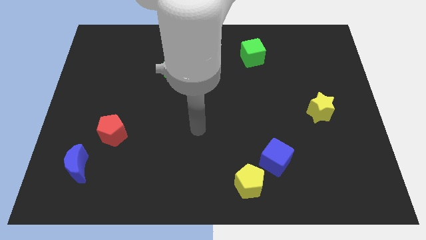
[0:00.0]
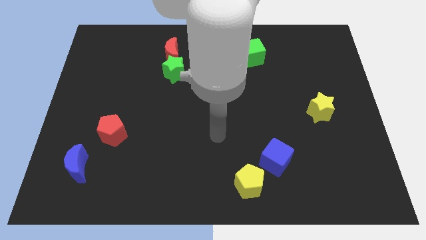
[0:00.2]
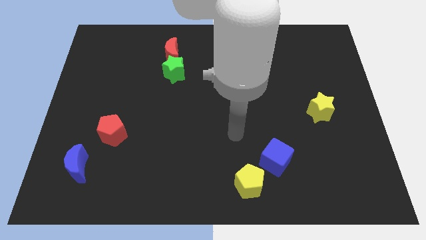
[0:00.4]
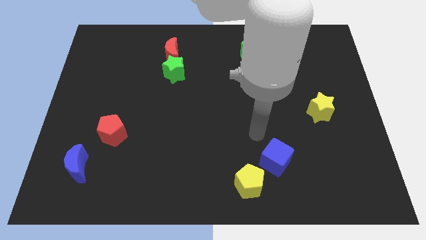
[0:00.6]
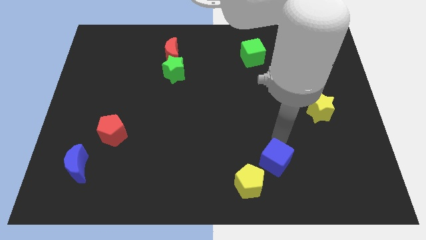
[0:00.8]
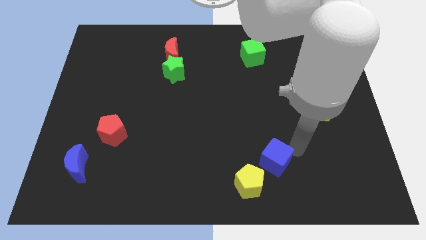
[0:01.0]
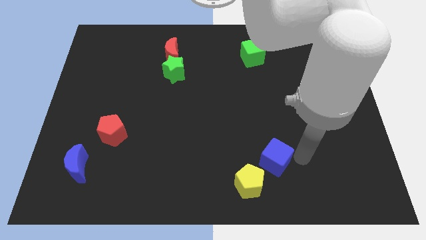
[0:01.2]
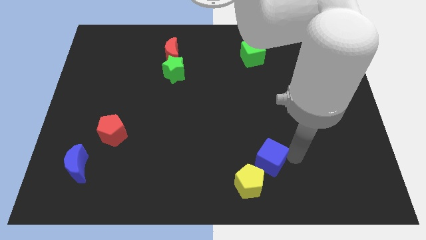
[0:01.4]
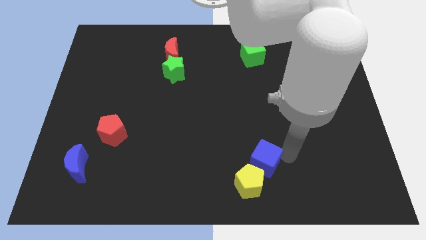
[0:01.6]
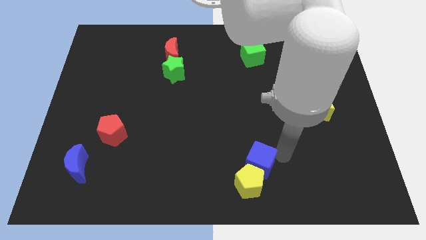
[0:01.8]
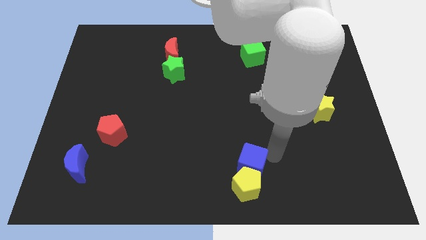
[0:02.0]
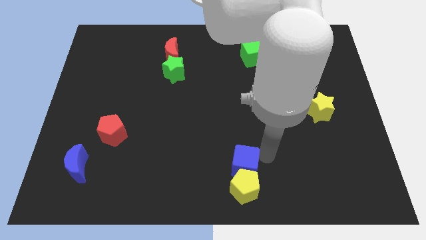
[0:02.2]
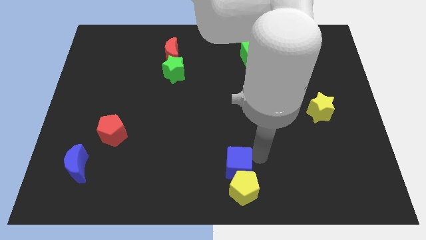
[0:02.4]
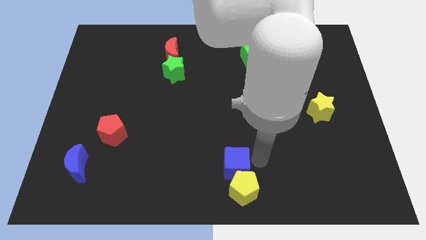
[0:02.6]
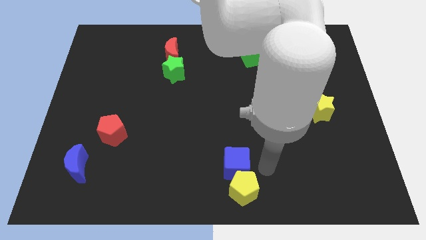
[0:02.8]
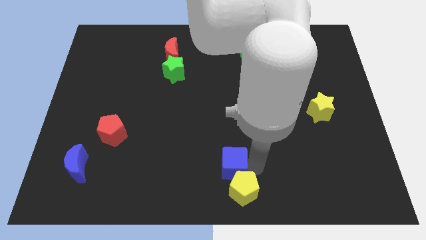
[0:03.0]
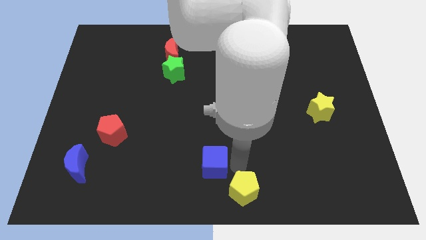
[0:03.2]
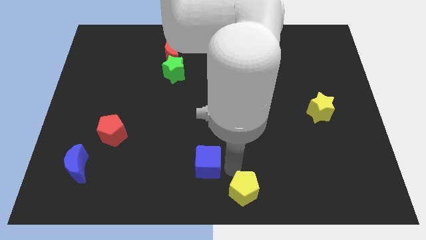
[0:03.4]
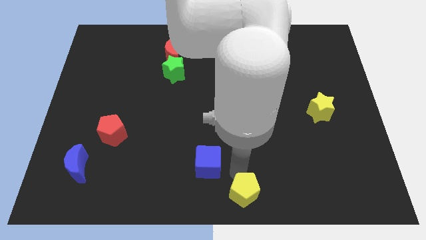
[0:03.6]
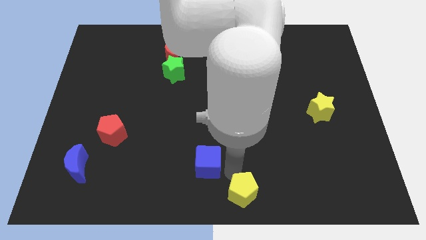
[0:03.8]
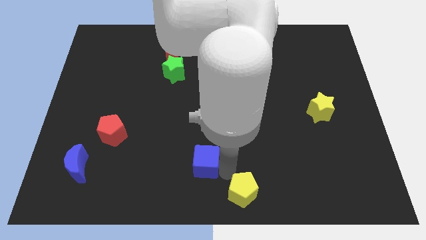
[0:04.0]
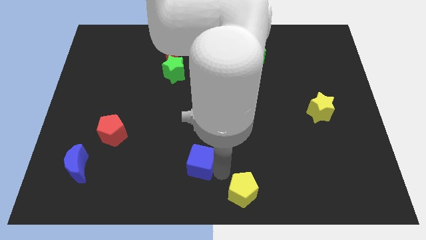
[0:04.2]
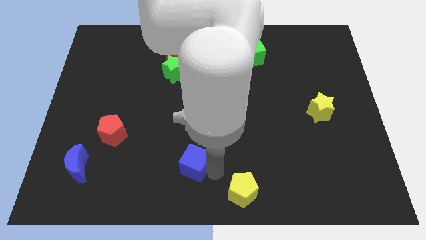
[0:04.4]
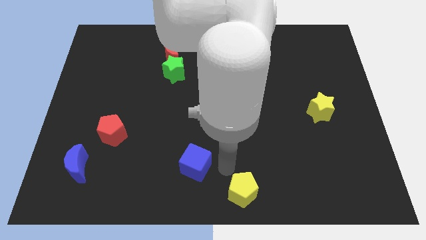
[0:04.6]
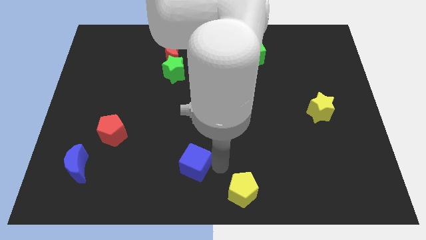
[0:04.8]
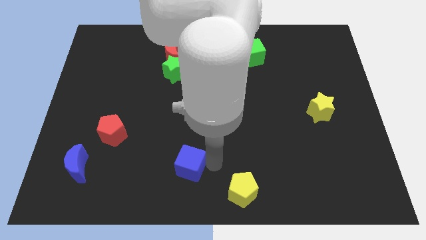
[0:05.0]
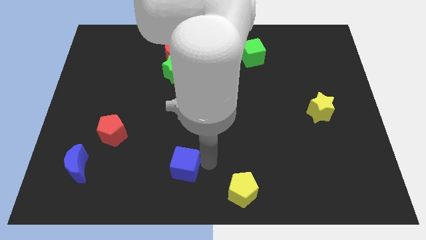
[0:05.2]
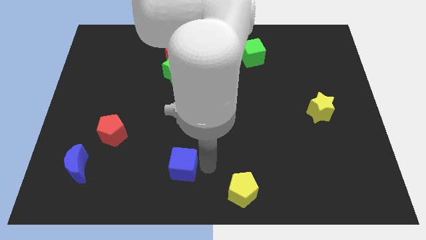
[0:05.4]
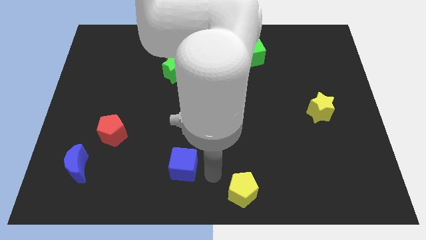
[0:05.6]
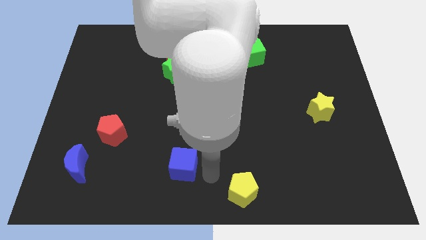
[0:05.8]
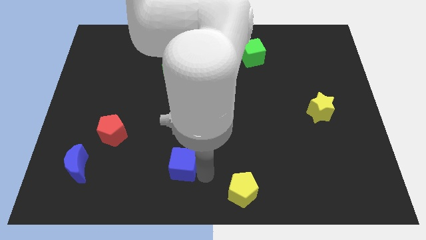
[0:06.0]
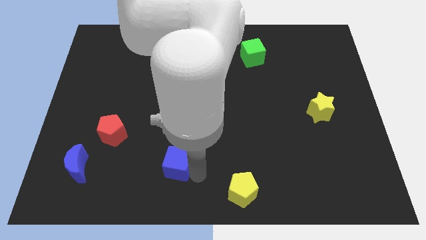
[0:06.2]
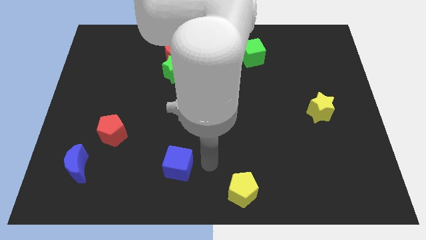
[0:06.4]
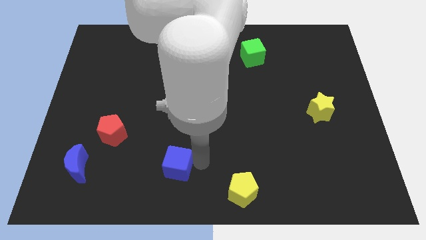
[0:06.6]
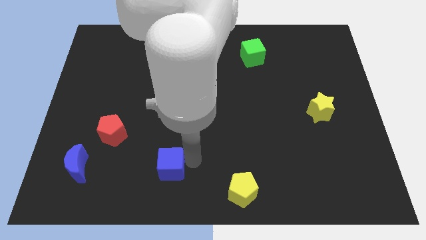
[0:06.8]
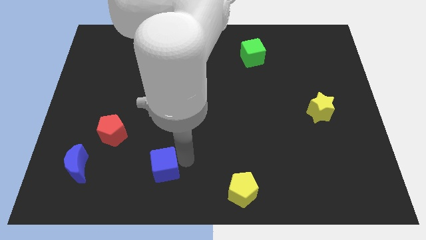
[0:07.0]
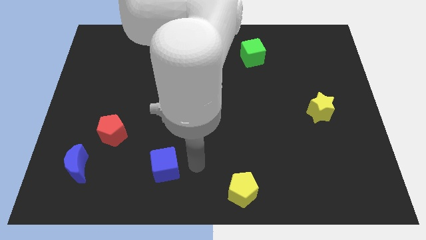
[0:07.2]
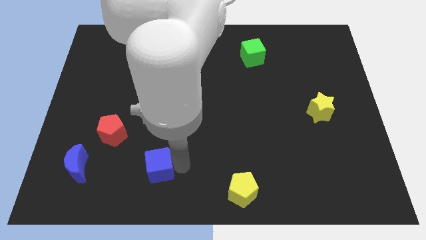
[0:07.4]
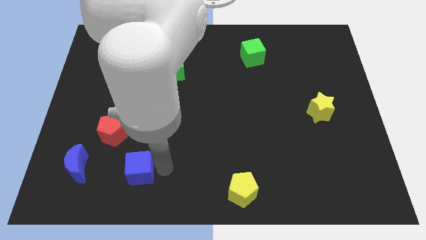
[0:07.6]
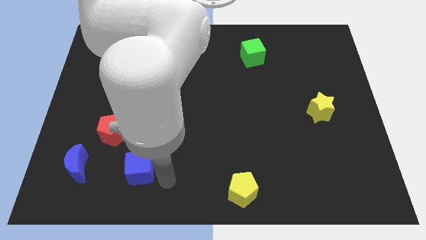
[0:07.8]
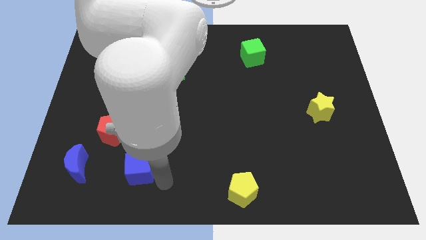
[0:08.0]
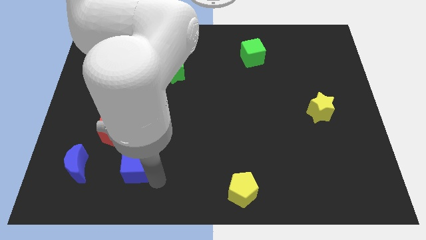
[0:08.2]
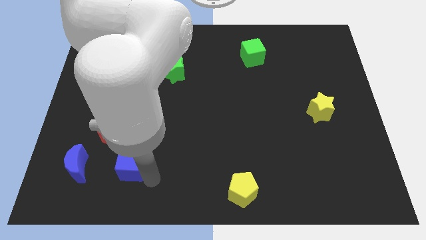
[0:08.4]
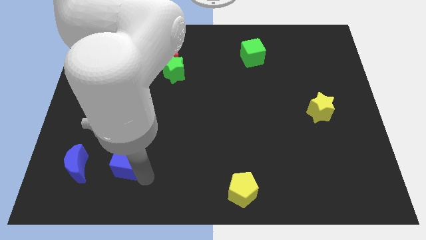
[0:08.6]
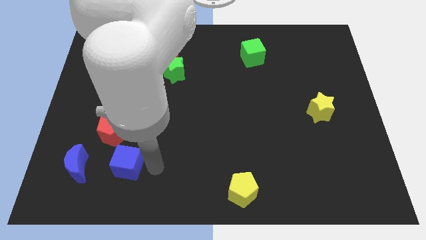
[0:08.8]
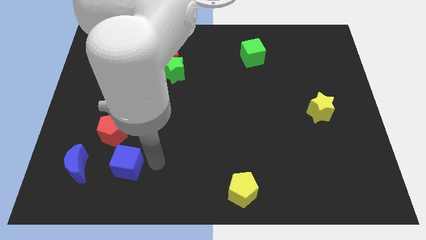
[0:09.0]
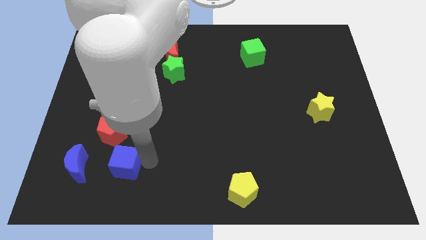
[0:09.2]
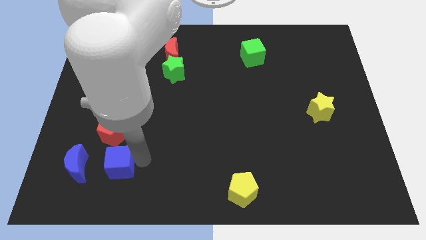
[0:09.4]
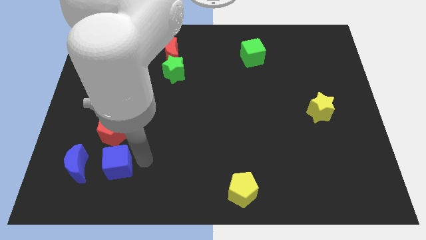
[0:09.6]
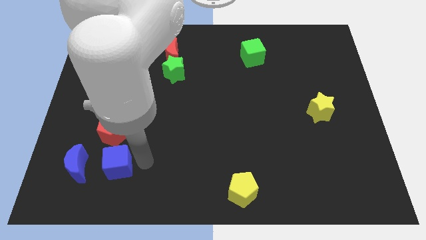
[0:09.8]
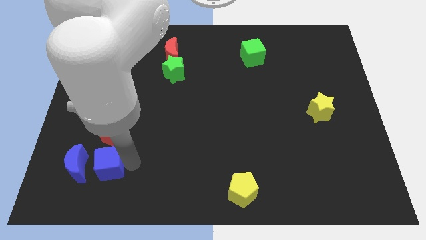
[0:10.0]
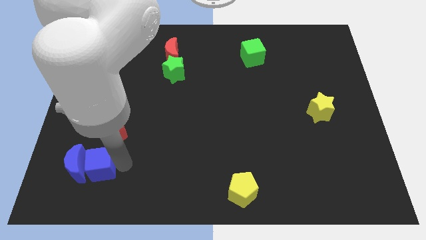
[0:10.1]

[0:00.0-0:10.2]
move the blue cube close to the blue moon

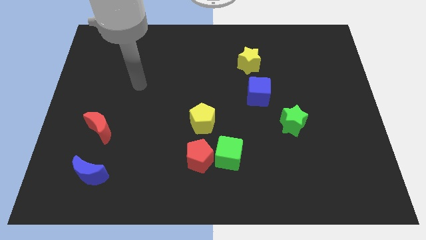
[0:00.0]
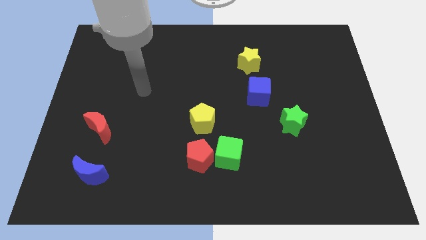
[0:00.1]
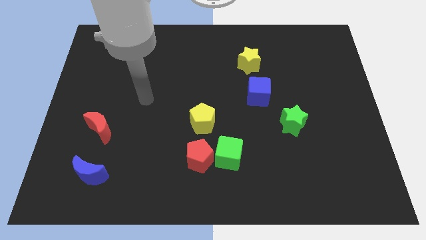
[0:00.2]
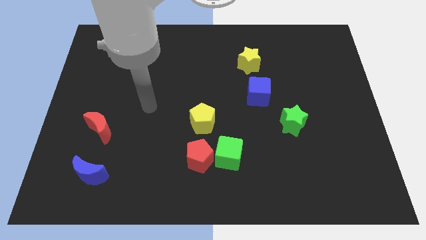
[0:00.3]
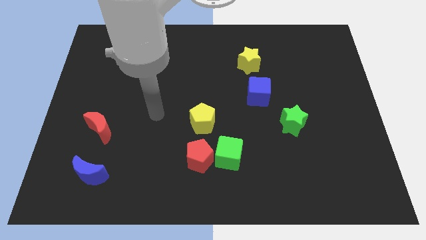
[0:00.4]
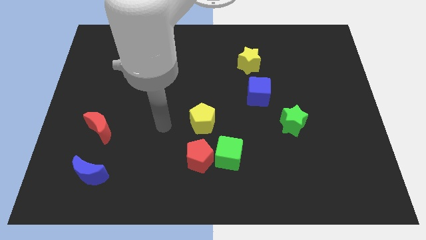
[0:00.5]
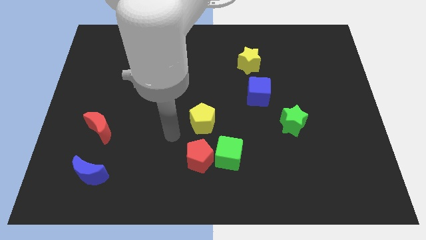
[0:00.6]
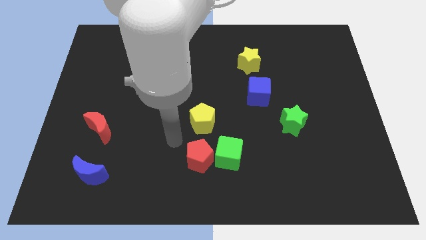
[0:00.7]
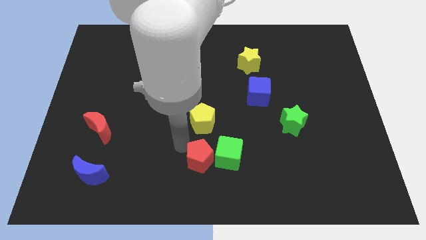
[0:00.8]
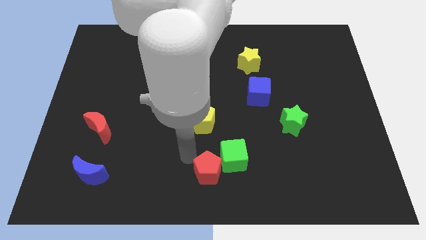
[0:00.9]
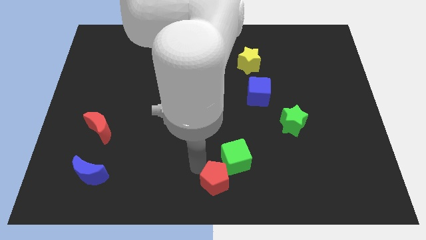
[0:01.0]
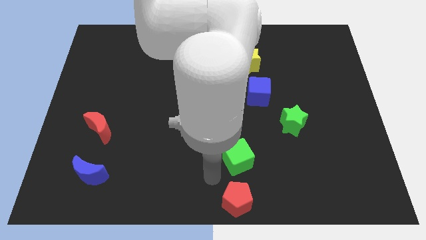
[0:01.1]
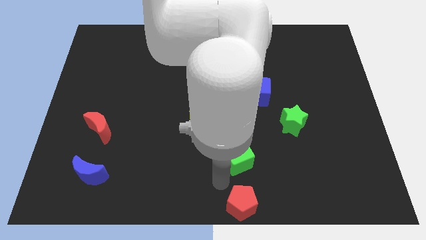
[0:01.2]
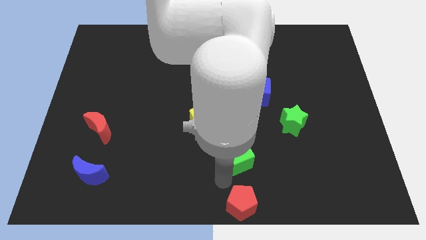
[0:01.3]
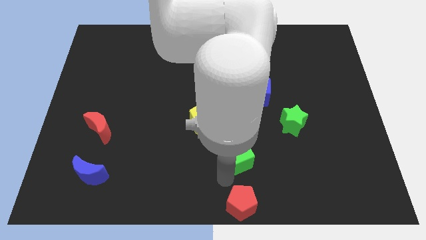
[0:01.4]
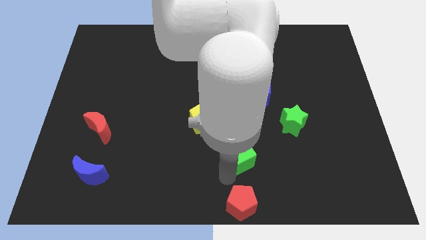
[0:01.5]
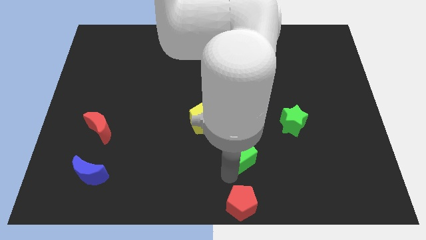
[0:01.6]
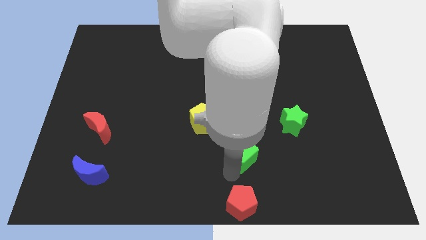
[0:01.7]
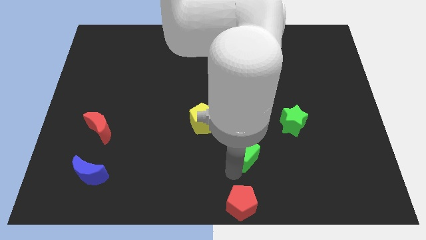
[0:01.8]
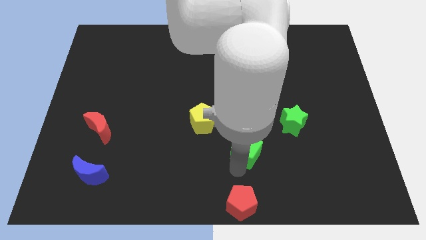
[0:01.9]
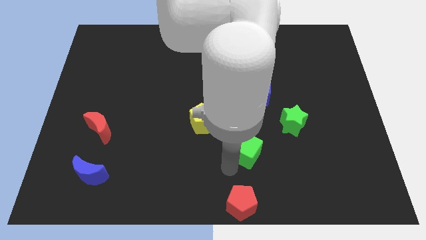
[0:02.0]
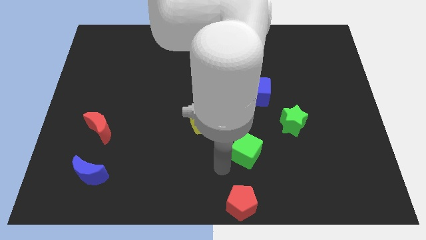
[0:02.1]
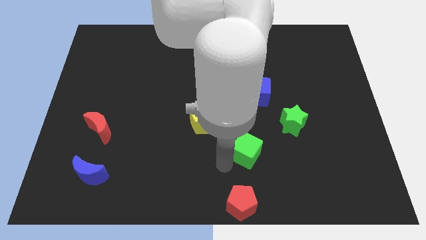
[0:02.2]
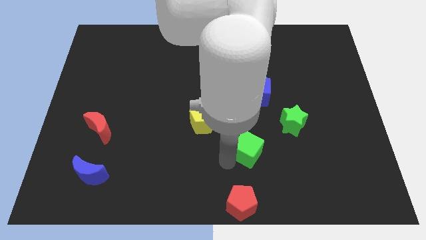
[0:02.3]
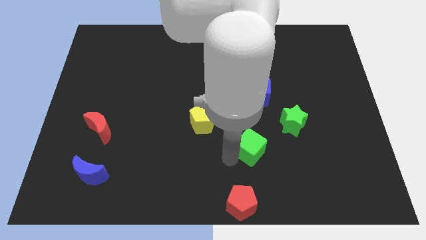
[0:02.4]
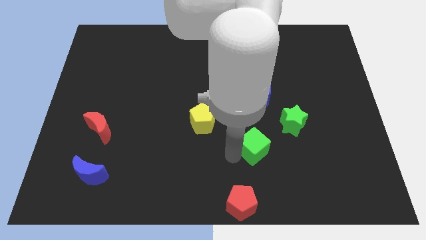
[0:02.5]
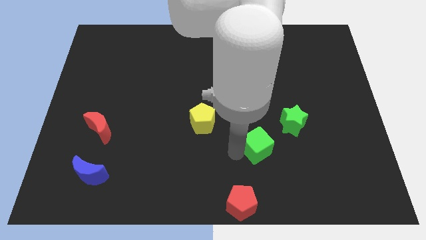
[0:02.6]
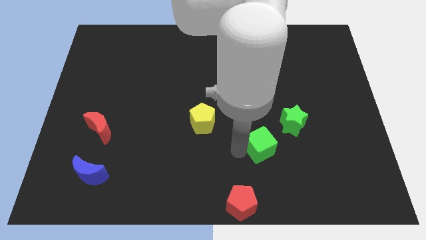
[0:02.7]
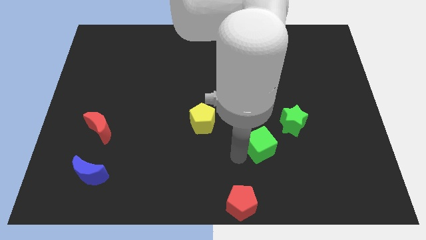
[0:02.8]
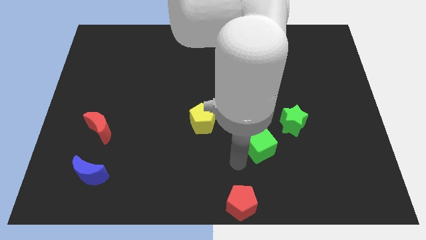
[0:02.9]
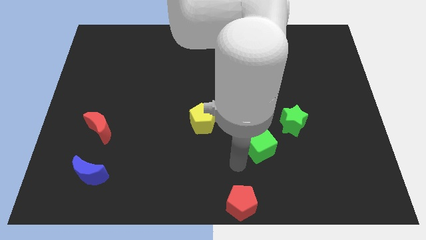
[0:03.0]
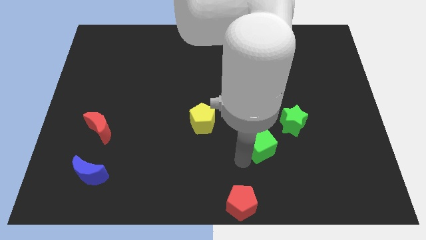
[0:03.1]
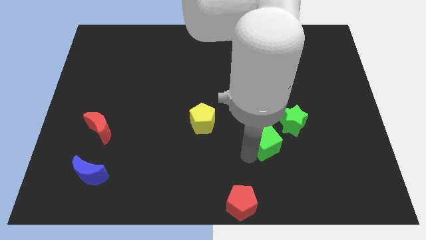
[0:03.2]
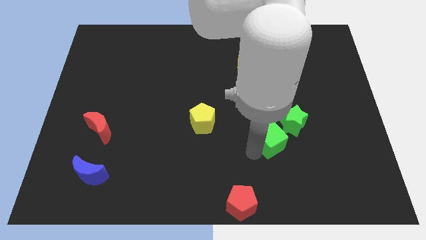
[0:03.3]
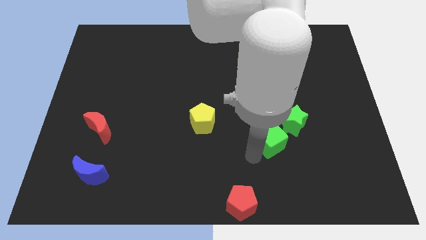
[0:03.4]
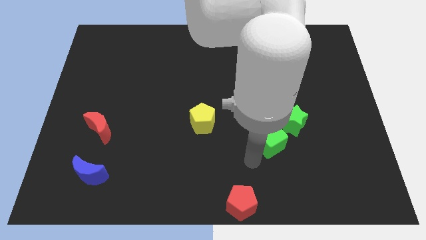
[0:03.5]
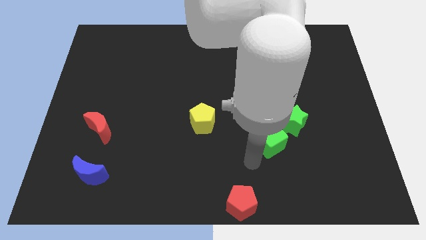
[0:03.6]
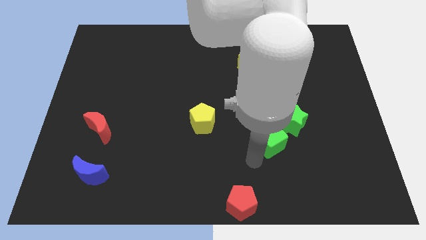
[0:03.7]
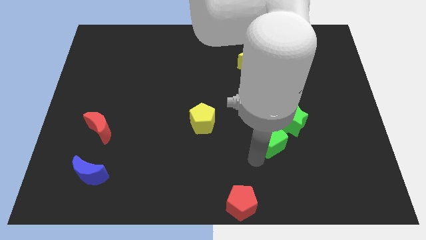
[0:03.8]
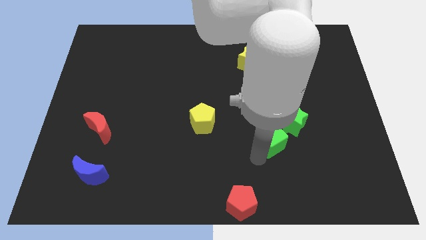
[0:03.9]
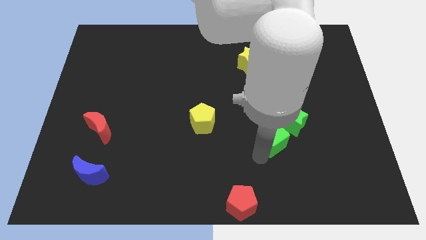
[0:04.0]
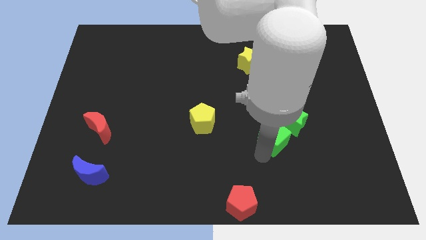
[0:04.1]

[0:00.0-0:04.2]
move the green cube towards the green star
